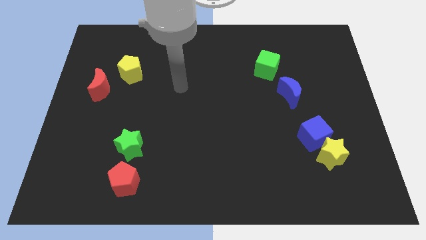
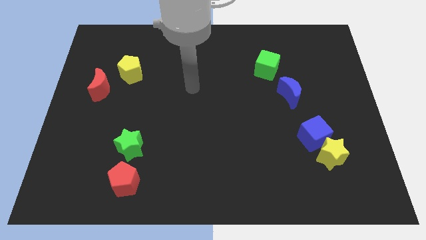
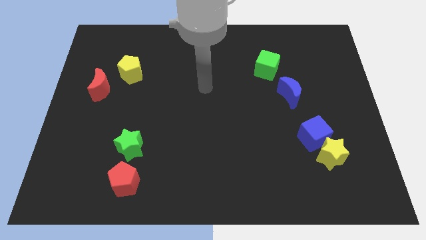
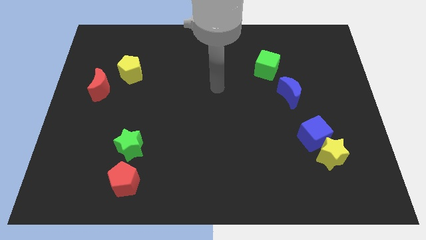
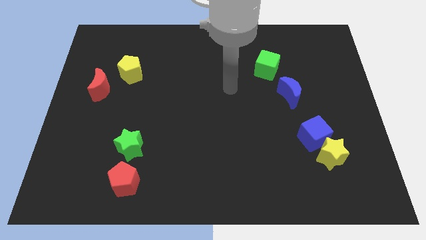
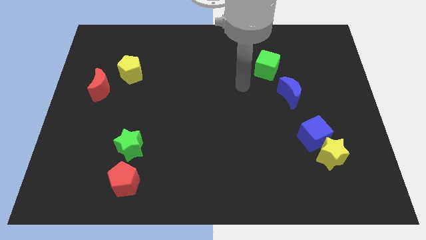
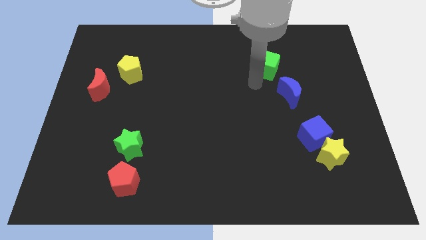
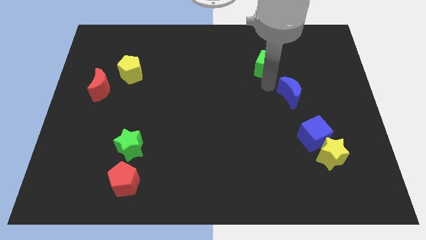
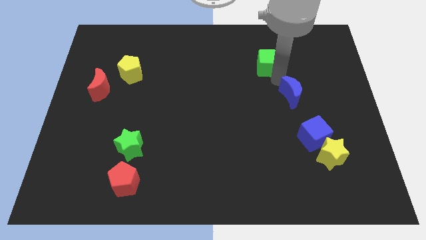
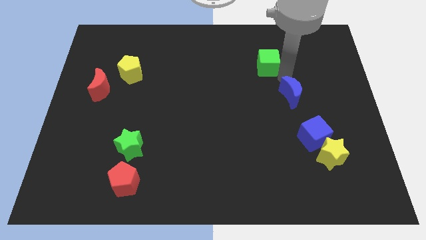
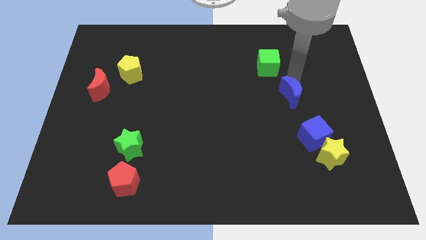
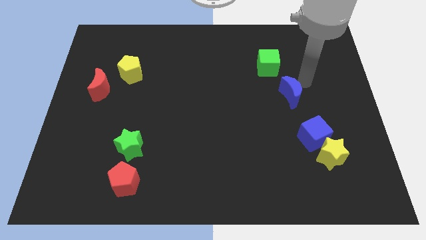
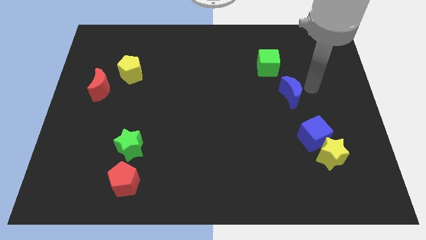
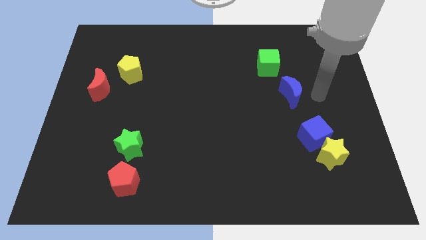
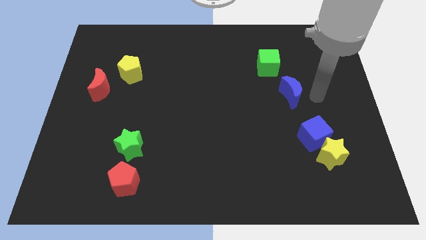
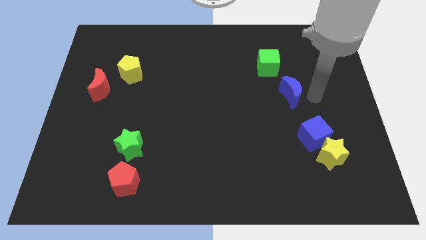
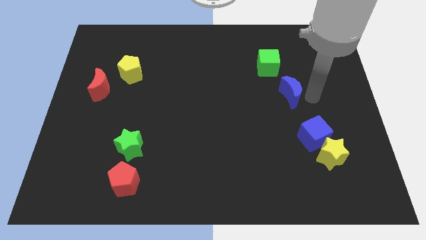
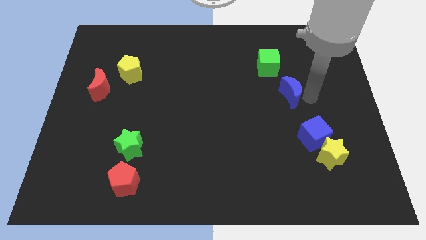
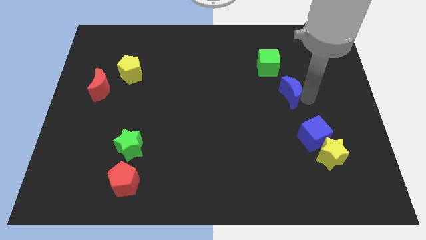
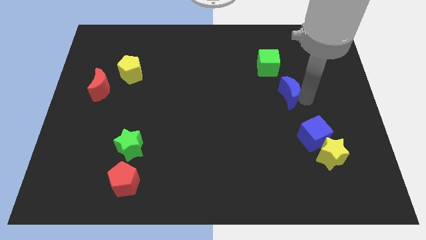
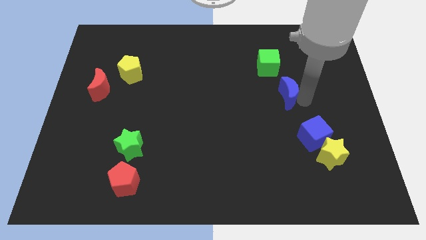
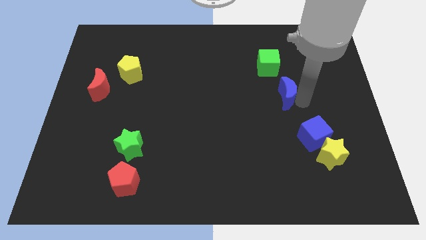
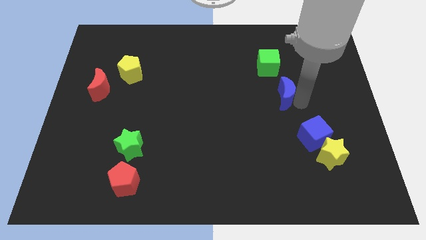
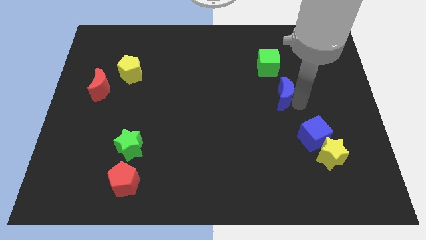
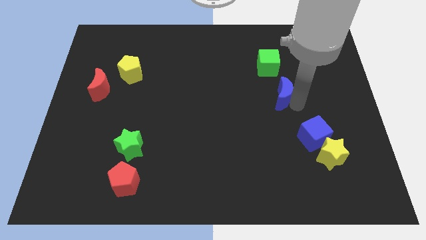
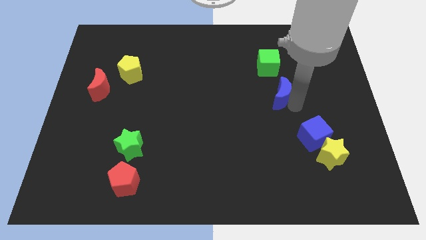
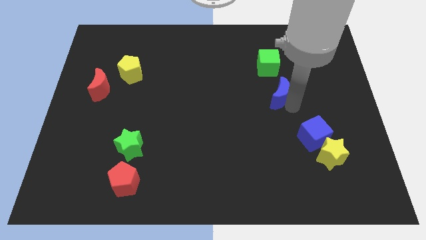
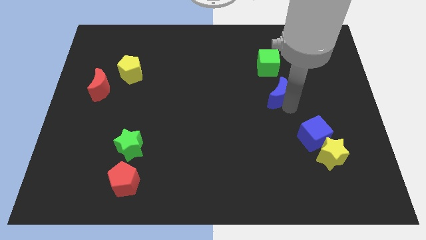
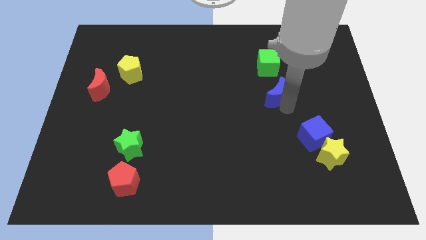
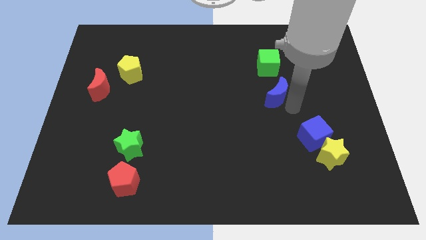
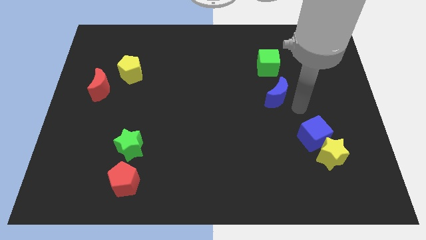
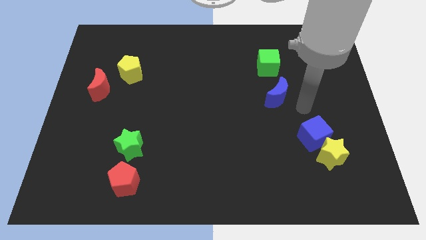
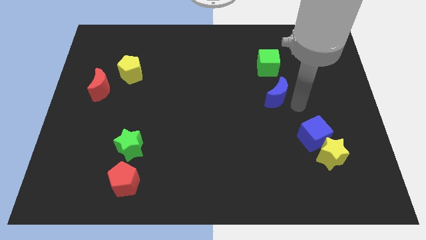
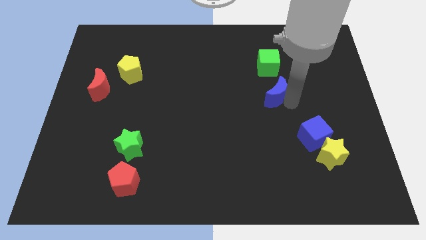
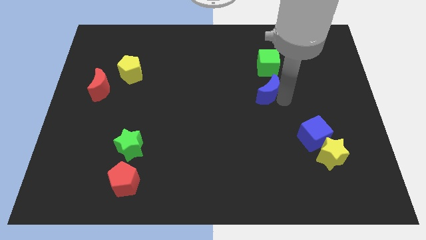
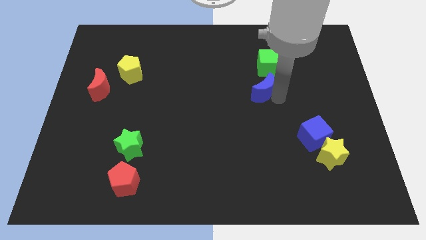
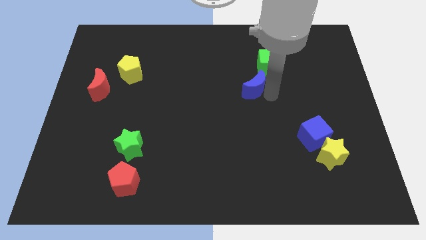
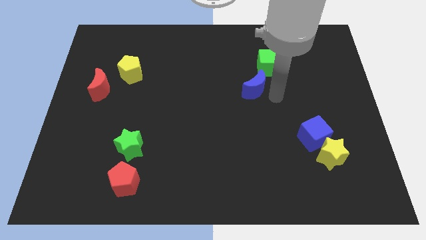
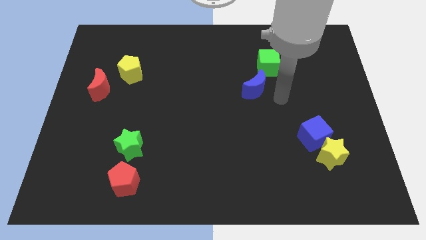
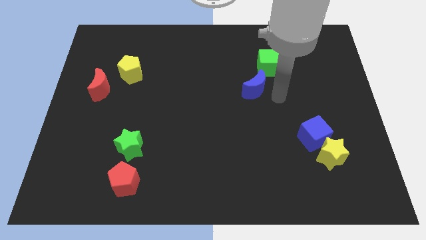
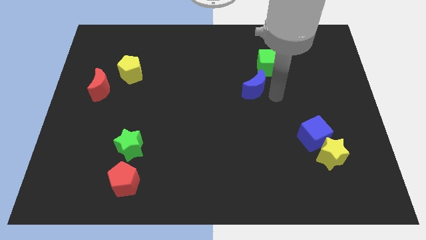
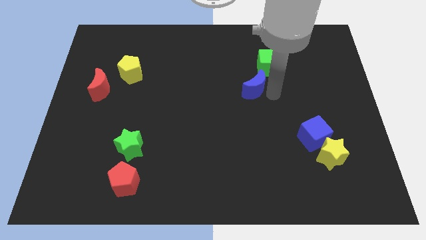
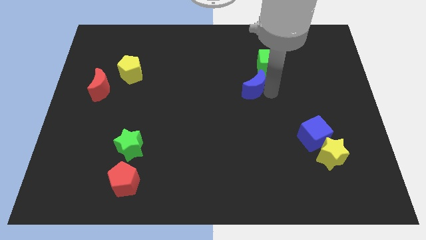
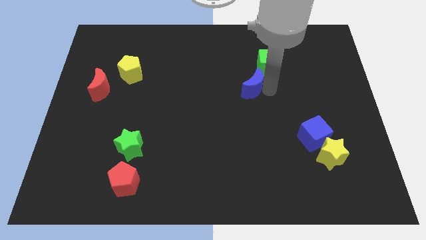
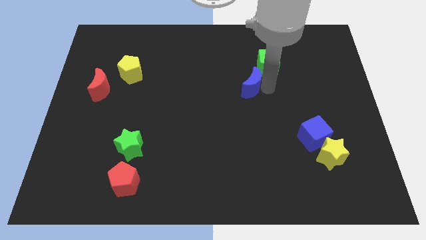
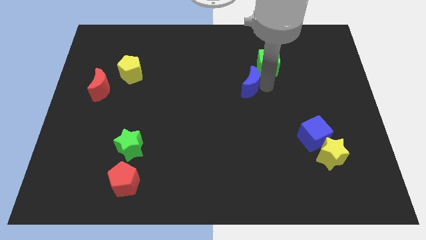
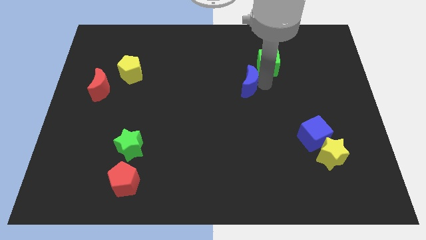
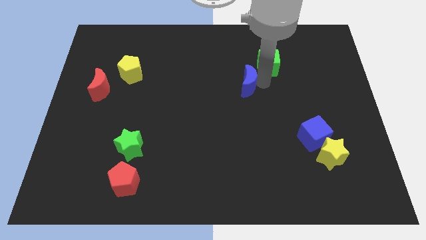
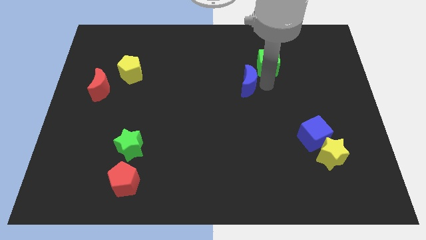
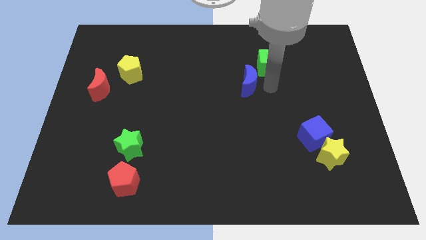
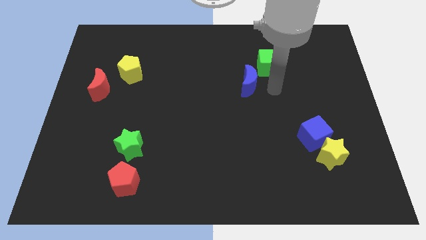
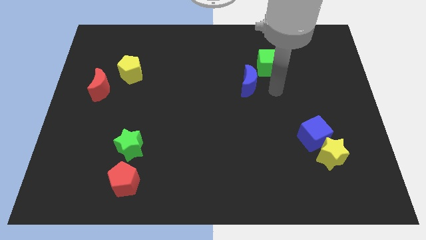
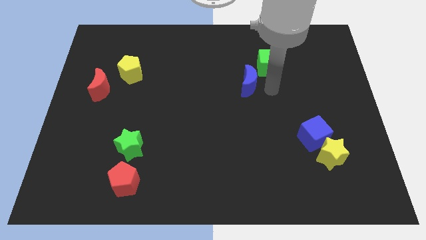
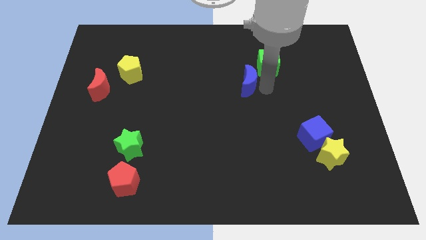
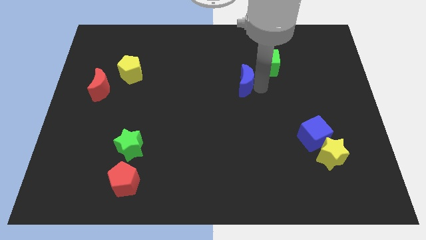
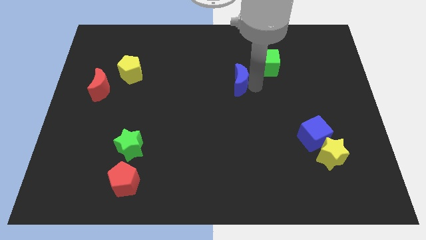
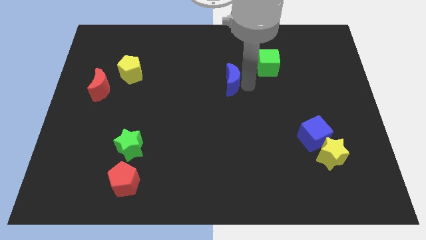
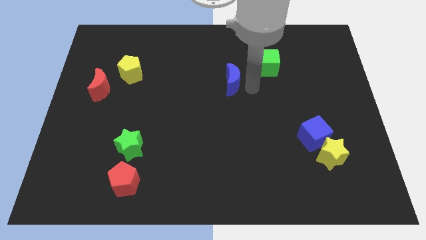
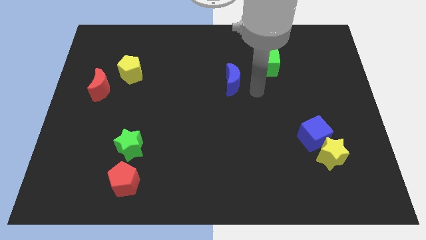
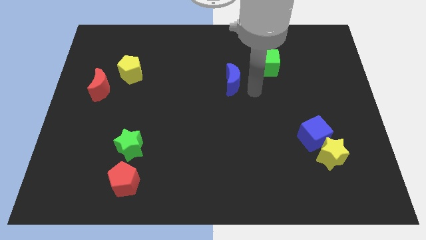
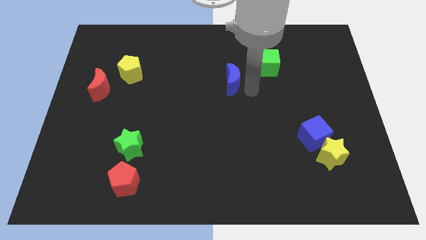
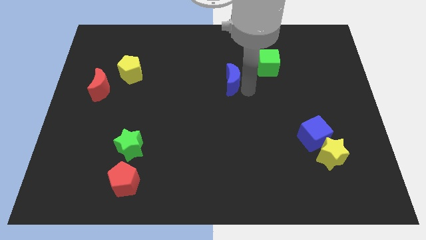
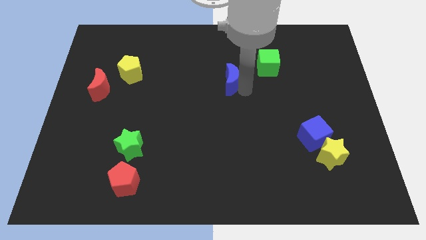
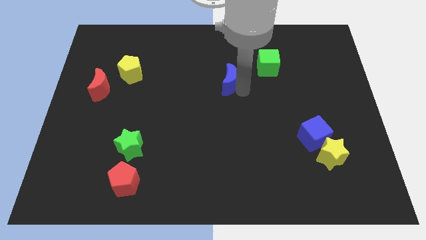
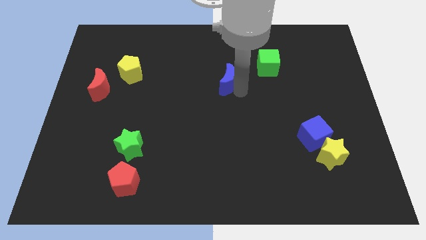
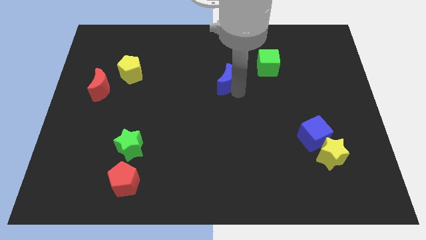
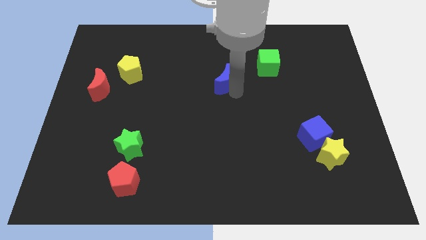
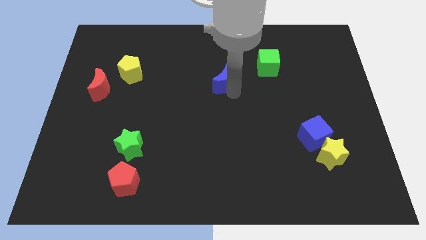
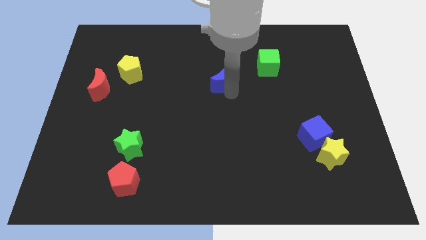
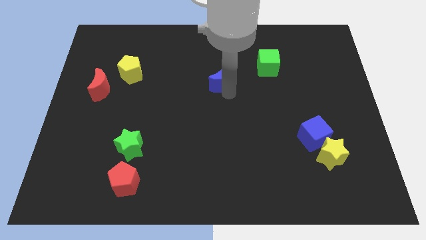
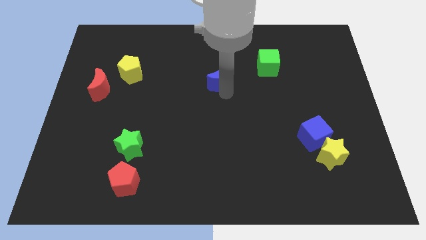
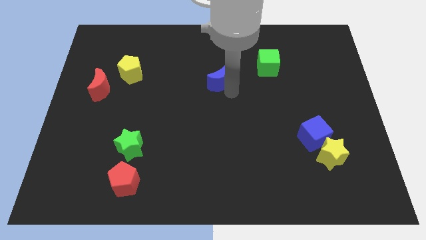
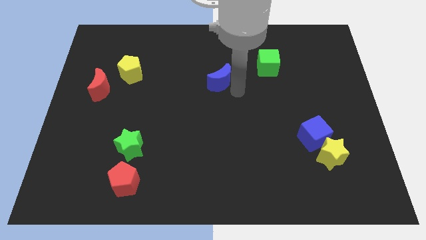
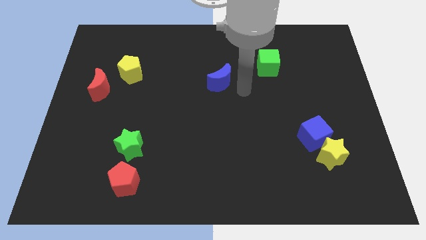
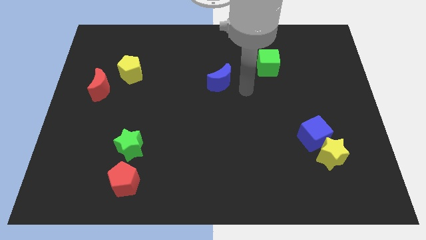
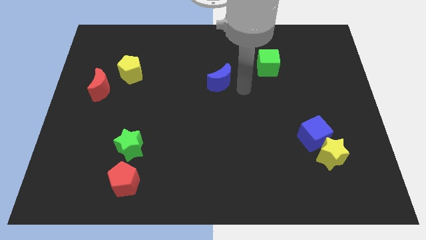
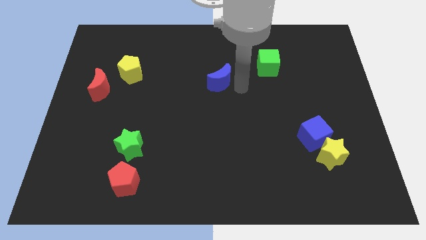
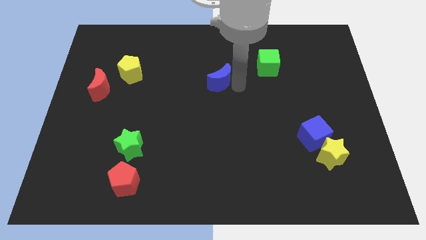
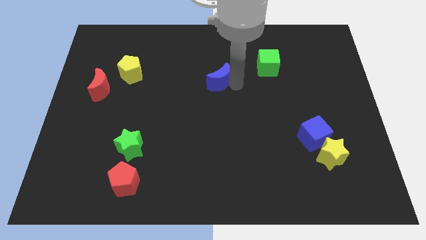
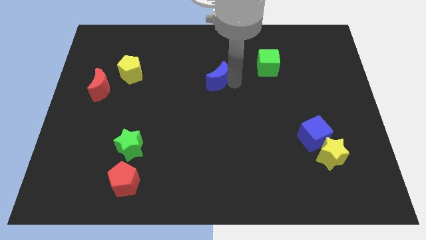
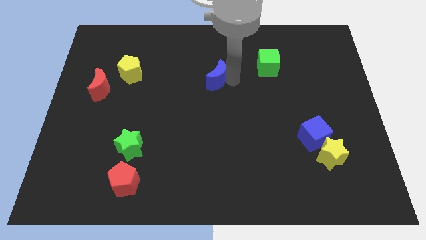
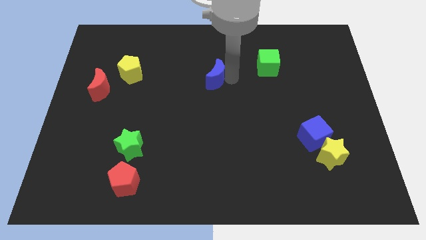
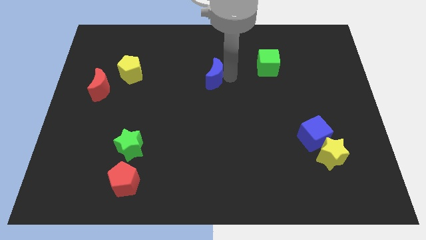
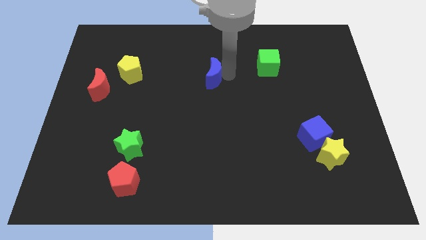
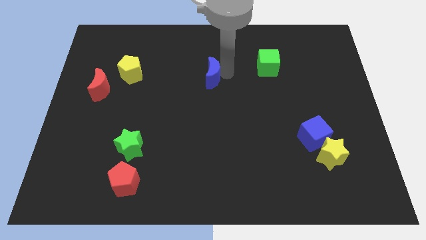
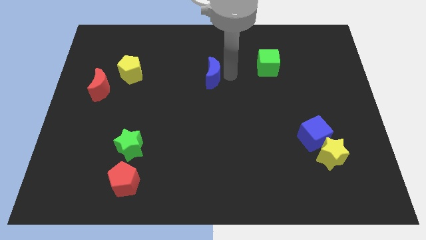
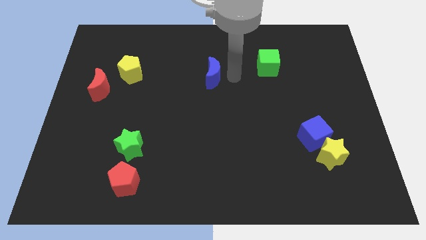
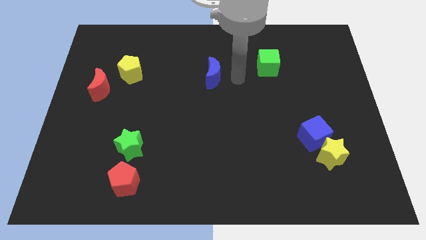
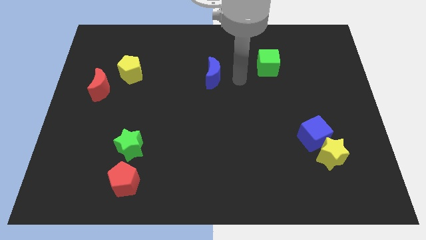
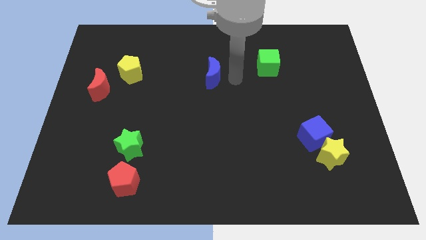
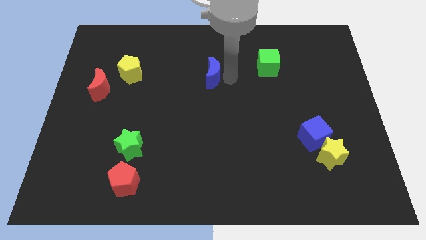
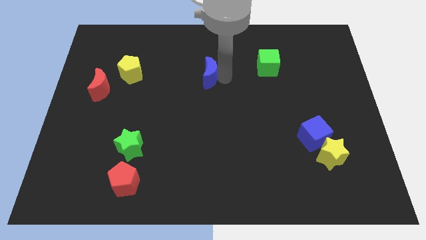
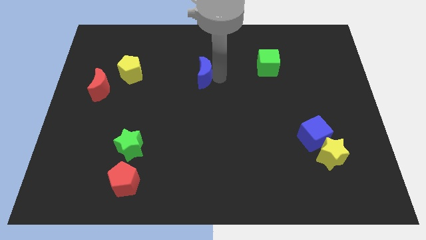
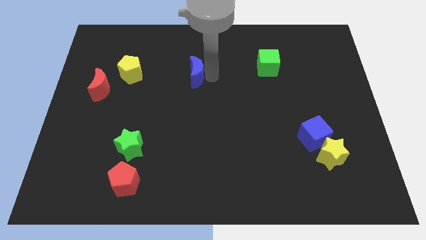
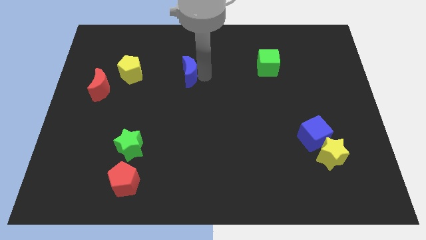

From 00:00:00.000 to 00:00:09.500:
move the blue moon to the right side of the yellow pentagon
